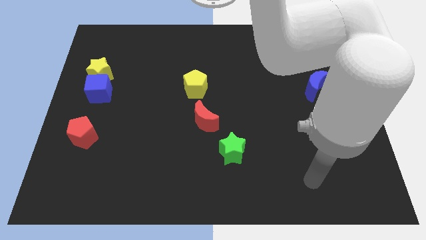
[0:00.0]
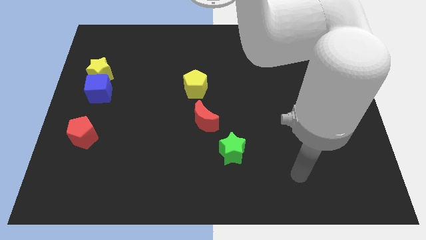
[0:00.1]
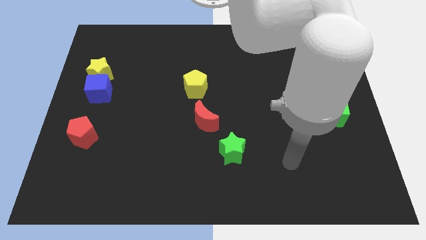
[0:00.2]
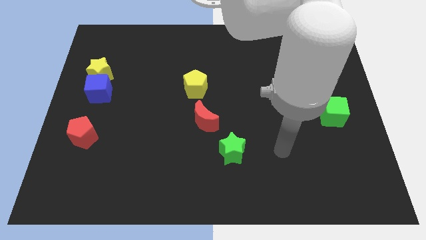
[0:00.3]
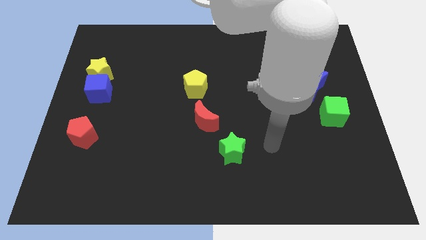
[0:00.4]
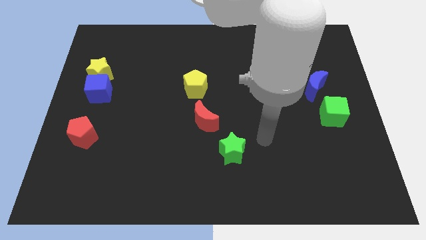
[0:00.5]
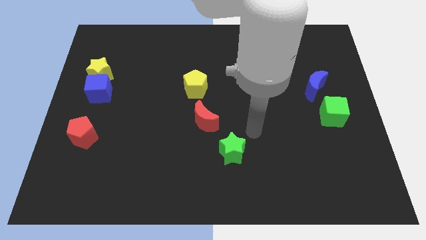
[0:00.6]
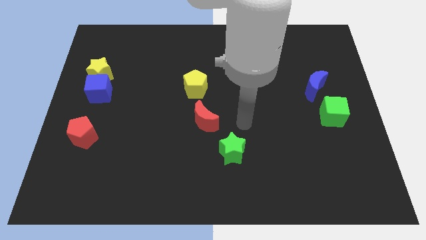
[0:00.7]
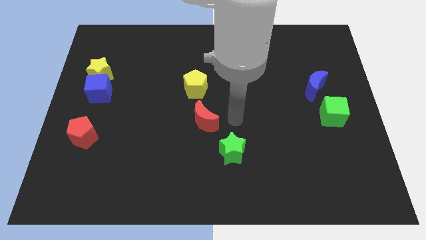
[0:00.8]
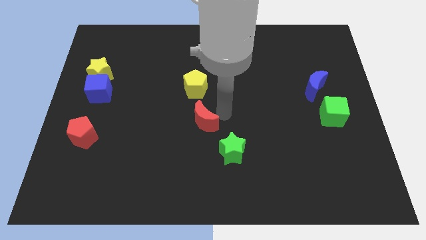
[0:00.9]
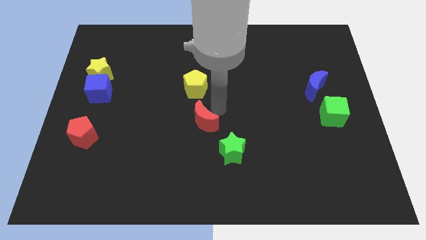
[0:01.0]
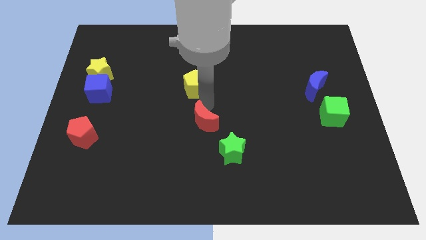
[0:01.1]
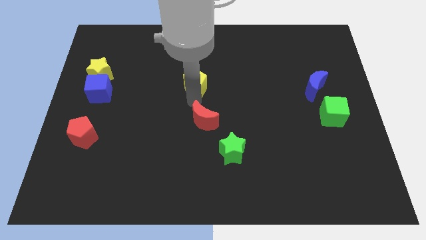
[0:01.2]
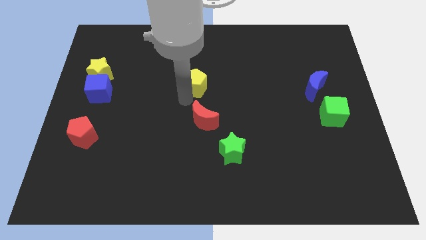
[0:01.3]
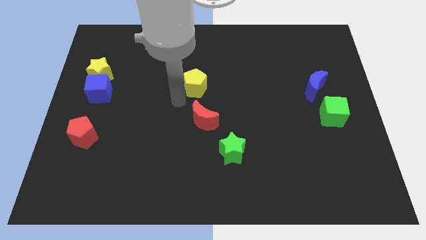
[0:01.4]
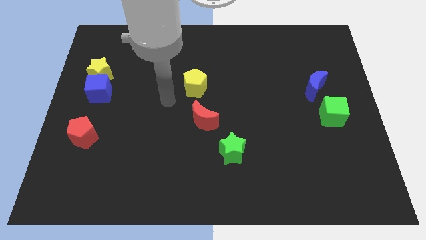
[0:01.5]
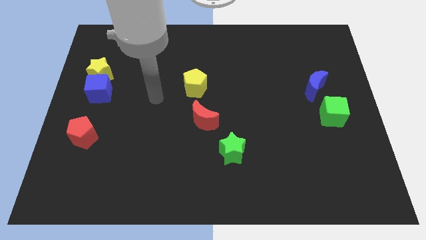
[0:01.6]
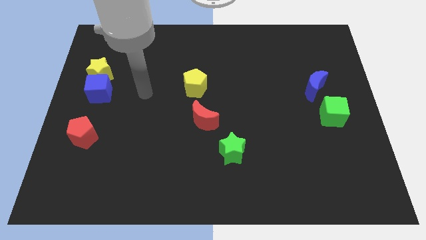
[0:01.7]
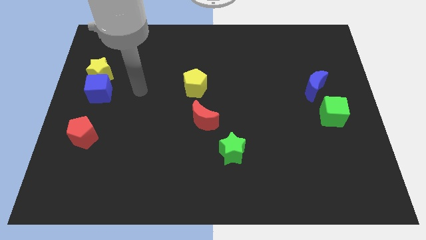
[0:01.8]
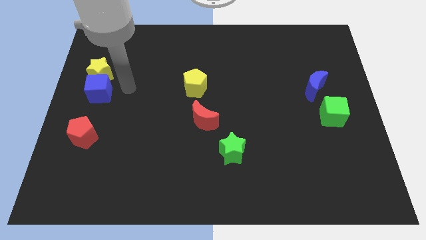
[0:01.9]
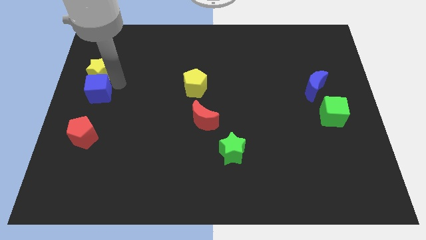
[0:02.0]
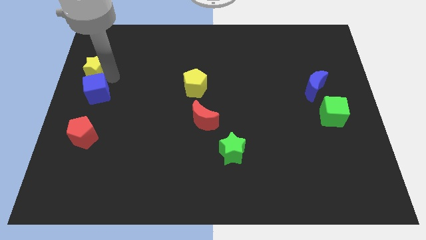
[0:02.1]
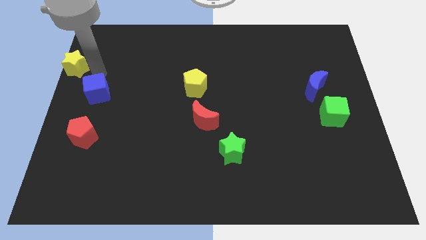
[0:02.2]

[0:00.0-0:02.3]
move the blue cube away from the yellow star

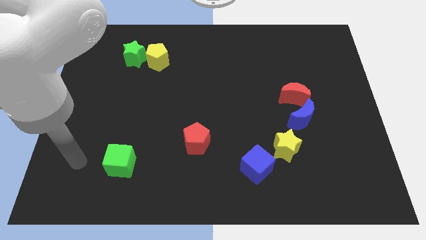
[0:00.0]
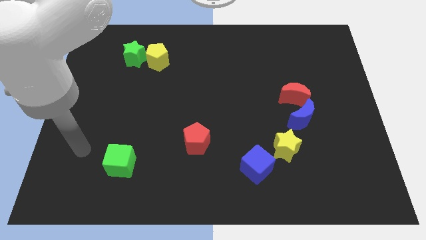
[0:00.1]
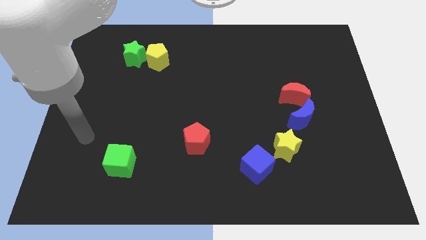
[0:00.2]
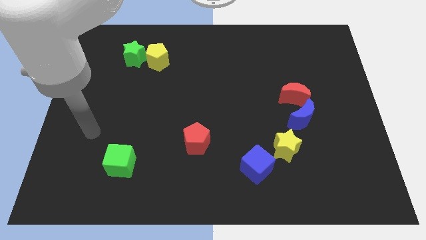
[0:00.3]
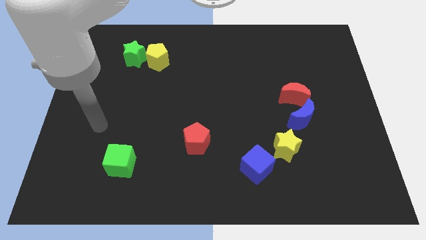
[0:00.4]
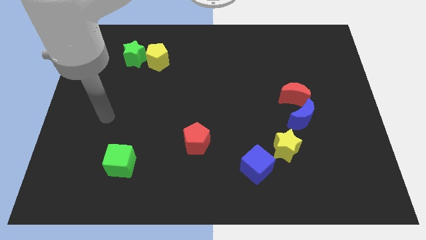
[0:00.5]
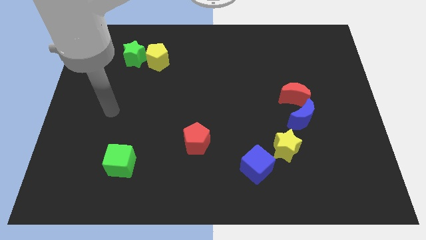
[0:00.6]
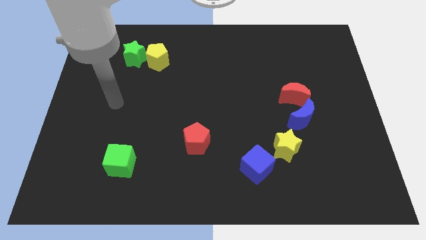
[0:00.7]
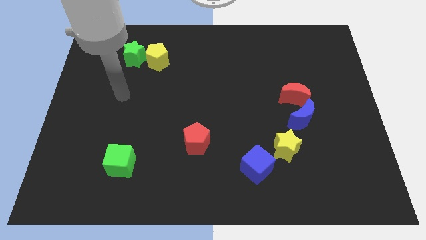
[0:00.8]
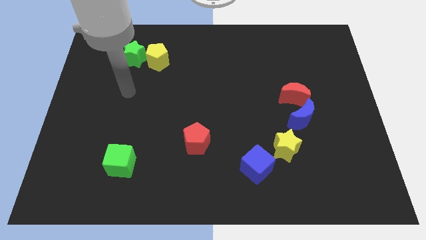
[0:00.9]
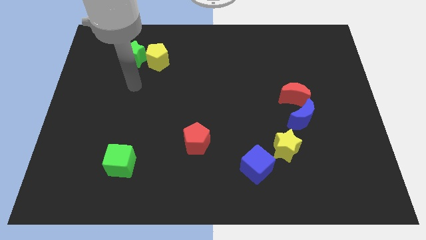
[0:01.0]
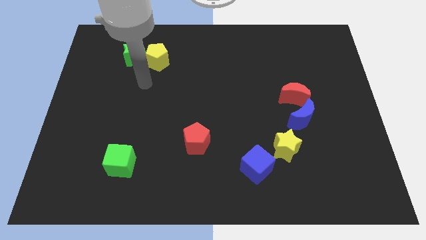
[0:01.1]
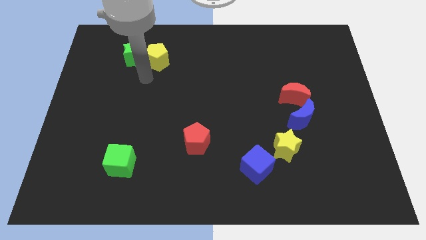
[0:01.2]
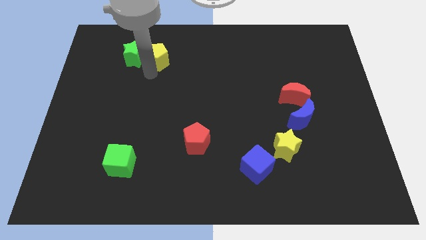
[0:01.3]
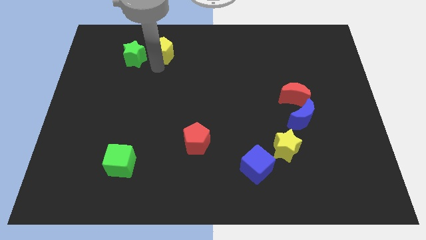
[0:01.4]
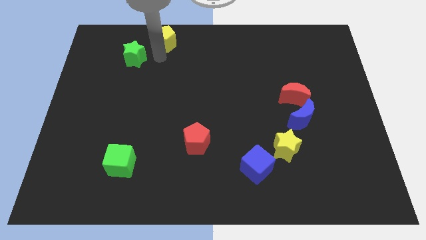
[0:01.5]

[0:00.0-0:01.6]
move the green star away from the yellow pentagon

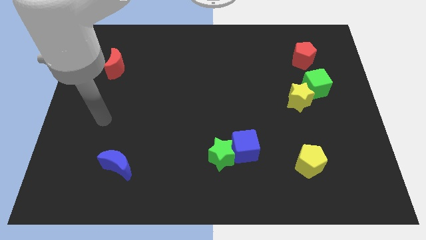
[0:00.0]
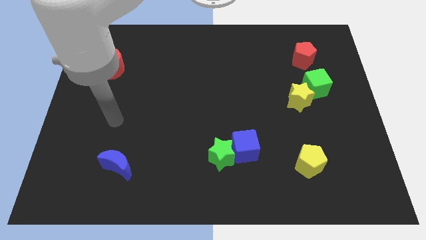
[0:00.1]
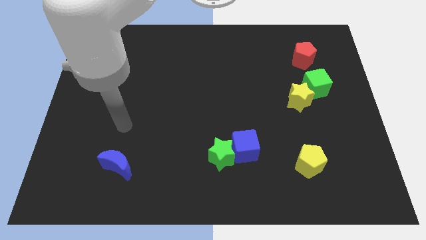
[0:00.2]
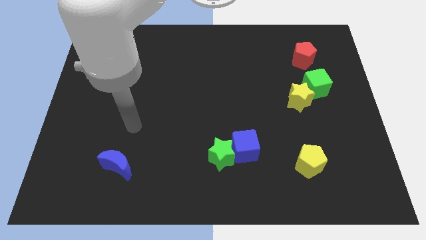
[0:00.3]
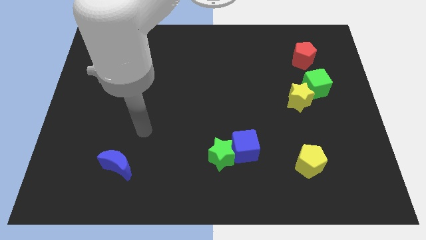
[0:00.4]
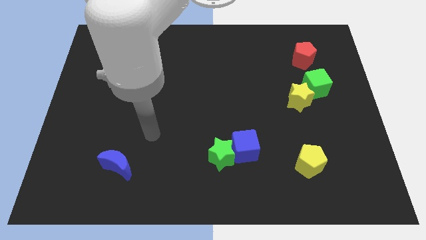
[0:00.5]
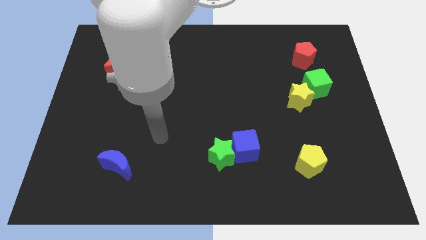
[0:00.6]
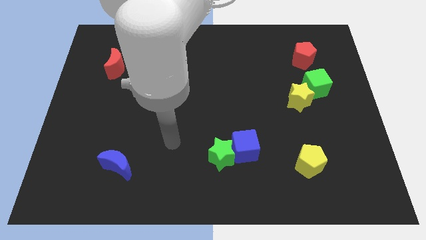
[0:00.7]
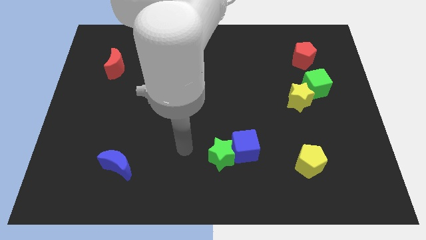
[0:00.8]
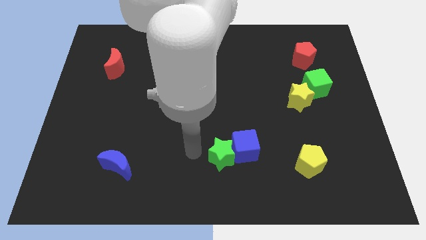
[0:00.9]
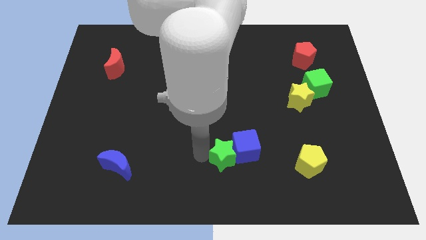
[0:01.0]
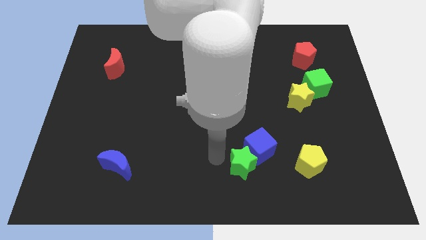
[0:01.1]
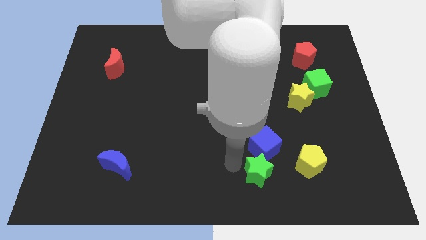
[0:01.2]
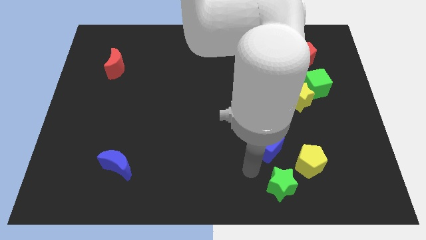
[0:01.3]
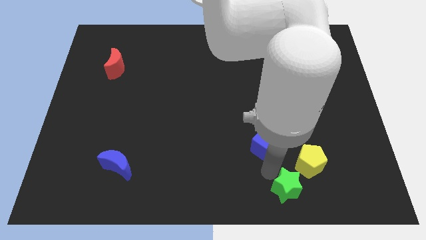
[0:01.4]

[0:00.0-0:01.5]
separate the blue cube from the green star

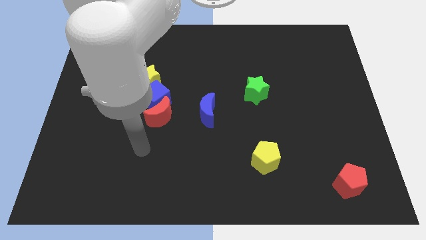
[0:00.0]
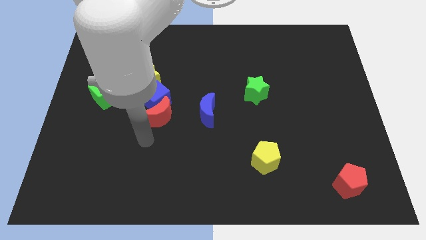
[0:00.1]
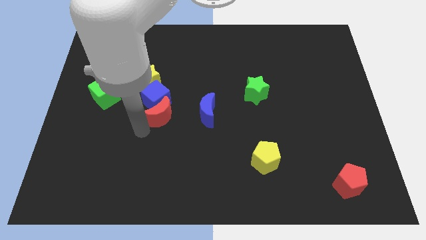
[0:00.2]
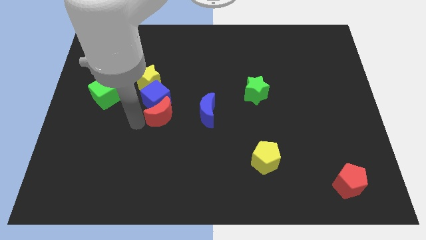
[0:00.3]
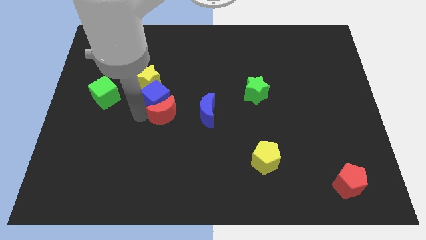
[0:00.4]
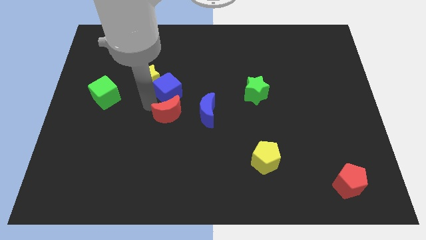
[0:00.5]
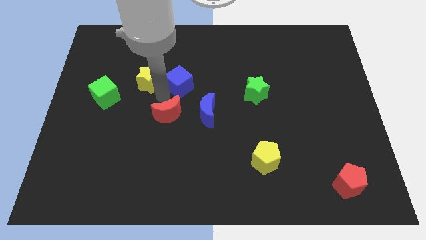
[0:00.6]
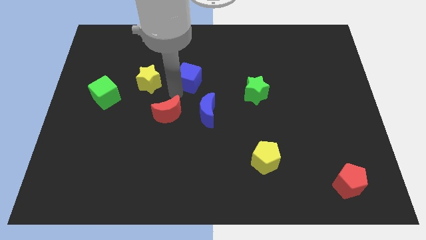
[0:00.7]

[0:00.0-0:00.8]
pull the red moon apart from the blue cube

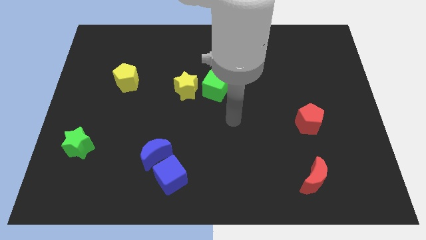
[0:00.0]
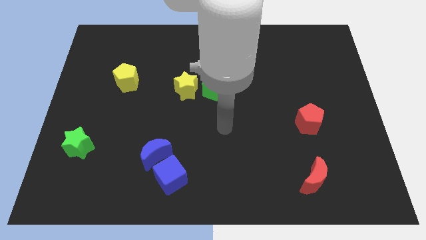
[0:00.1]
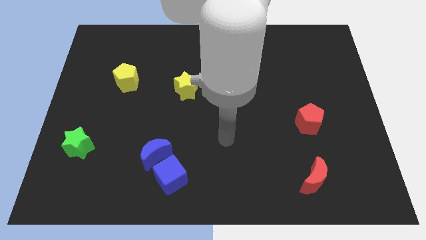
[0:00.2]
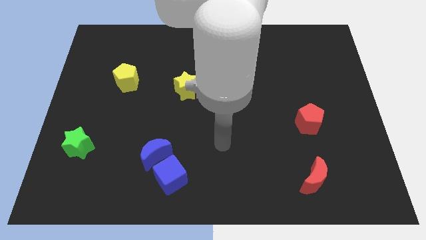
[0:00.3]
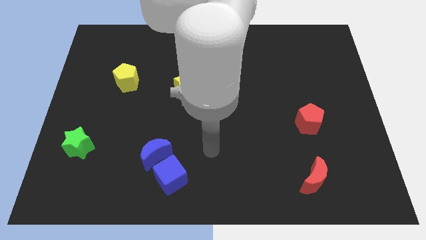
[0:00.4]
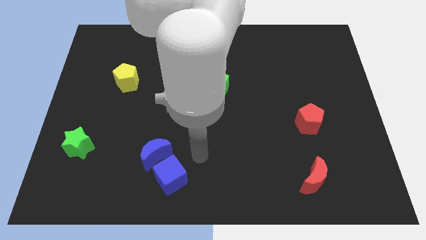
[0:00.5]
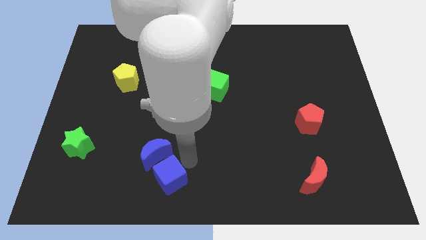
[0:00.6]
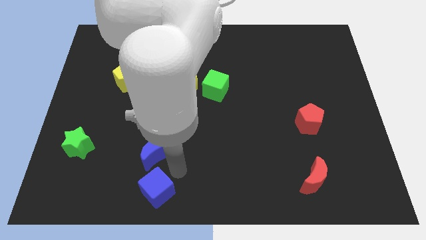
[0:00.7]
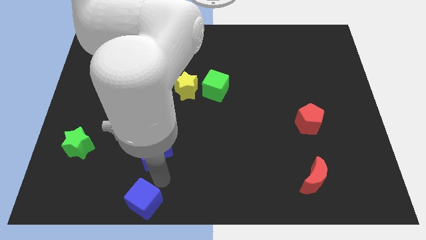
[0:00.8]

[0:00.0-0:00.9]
pull the blue moon apart from the blue cube

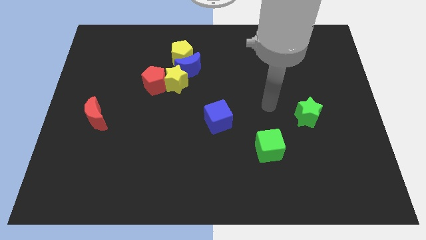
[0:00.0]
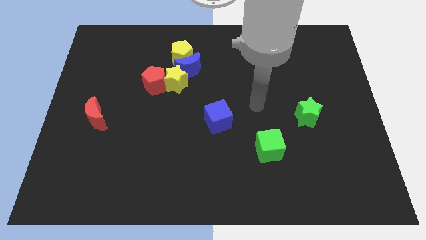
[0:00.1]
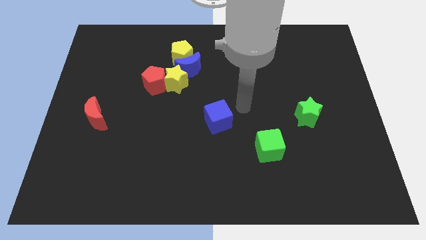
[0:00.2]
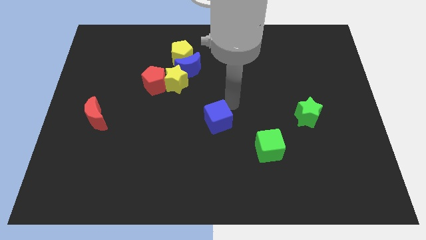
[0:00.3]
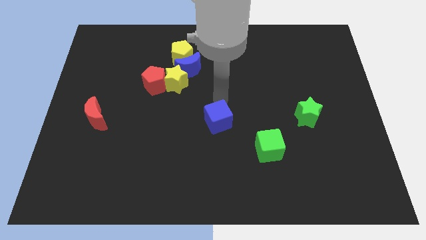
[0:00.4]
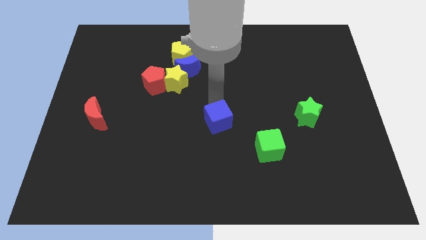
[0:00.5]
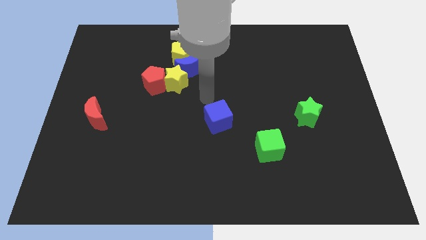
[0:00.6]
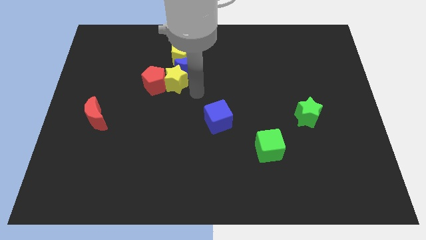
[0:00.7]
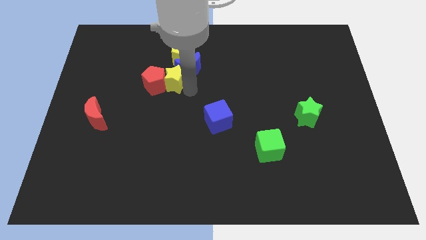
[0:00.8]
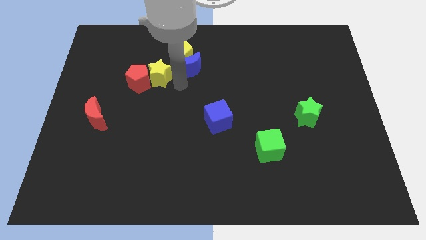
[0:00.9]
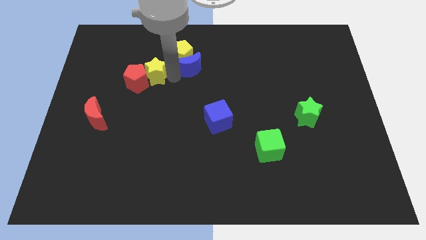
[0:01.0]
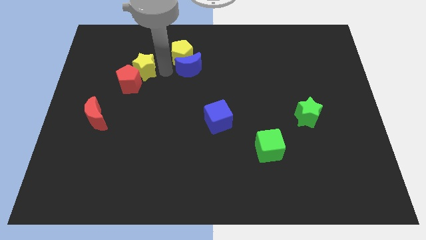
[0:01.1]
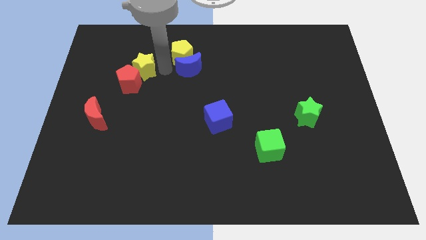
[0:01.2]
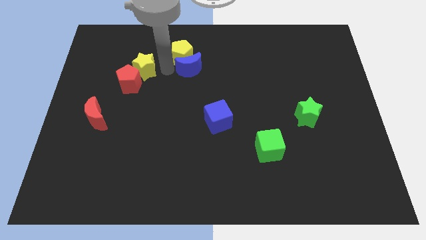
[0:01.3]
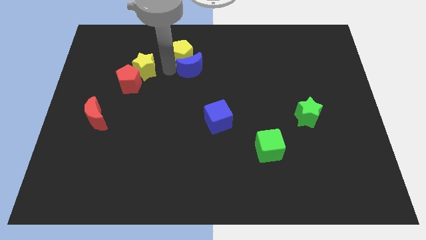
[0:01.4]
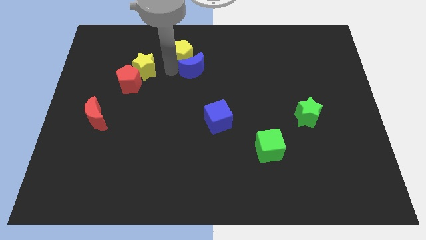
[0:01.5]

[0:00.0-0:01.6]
pull the blue moon apart from the group of blocks

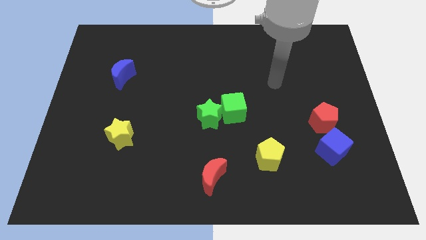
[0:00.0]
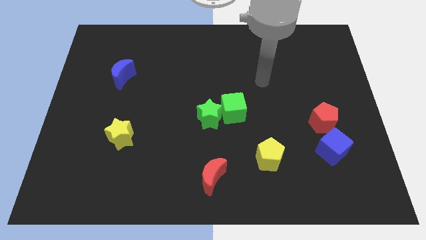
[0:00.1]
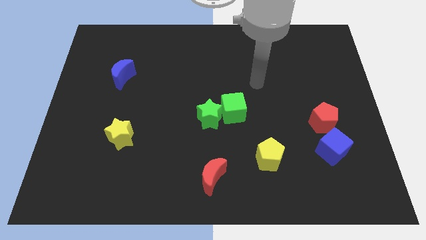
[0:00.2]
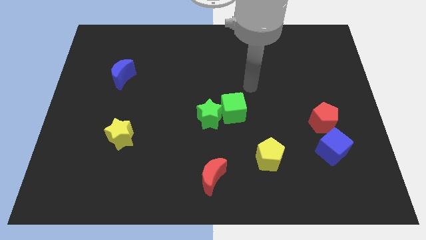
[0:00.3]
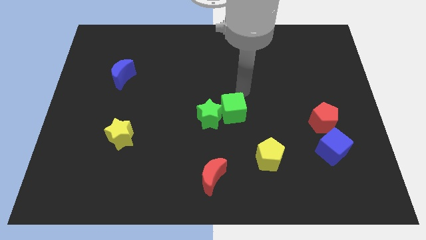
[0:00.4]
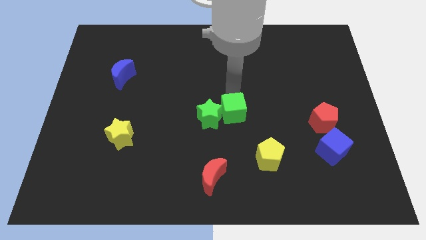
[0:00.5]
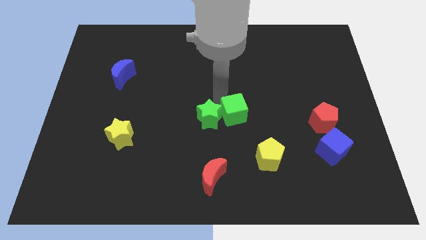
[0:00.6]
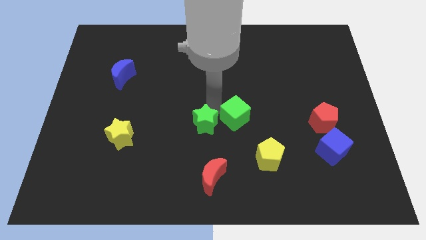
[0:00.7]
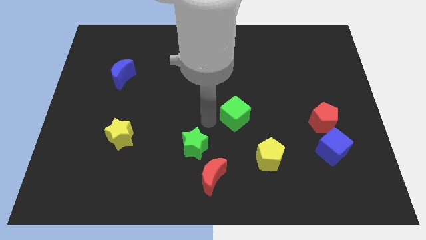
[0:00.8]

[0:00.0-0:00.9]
pull the green cube apart from the green star
